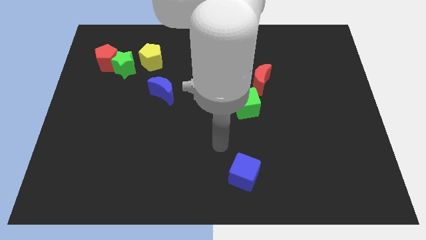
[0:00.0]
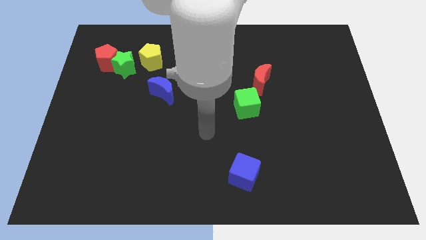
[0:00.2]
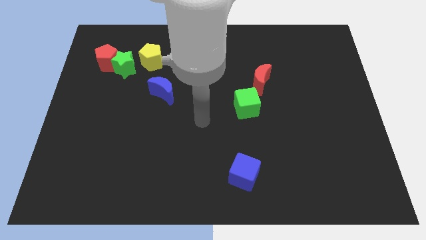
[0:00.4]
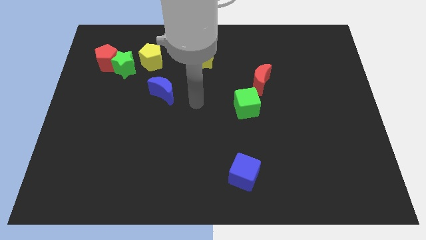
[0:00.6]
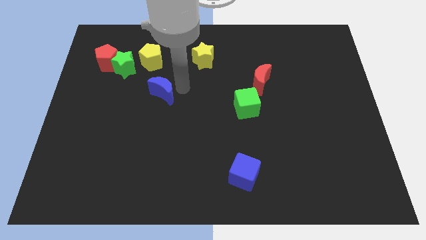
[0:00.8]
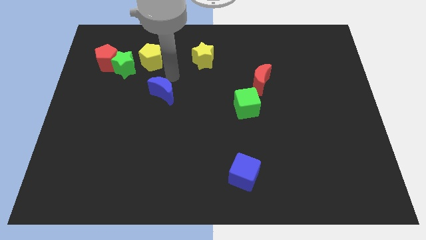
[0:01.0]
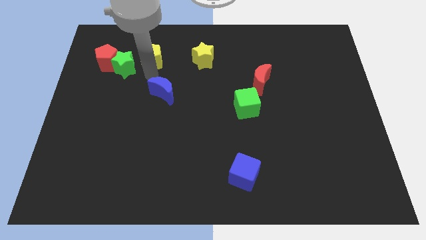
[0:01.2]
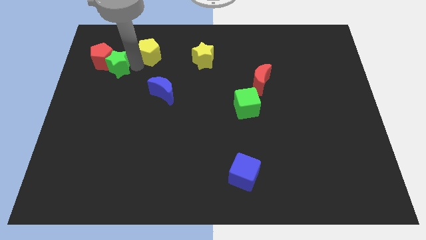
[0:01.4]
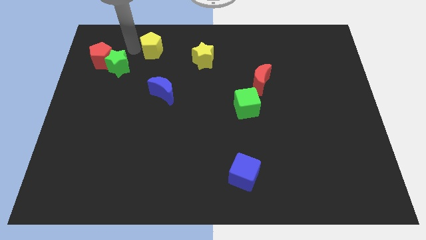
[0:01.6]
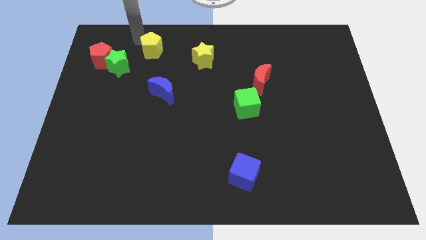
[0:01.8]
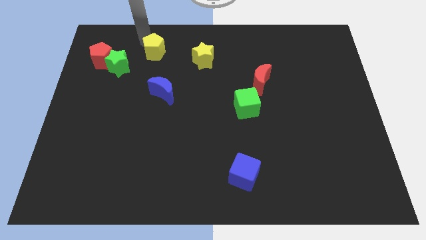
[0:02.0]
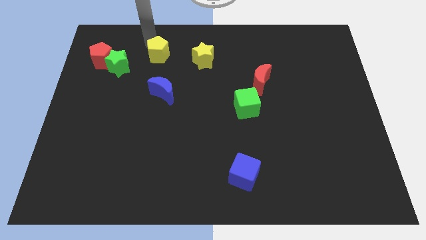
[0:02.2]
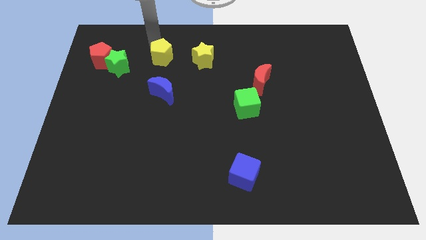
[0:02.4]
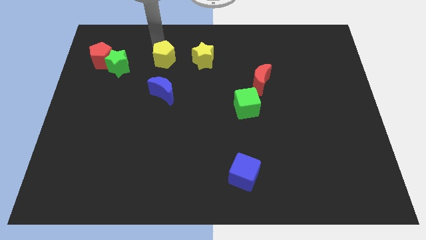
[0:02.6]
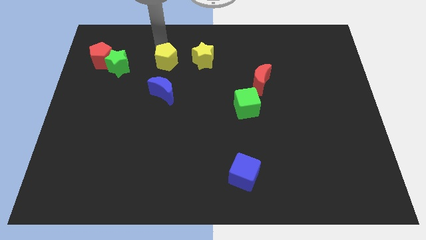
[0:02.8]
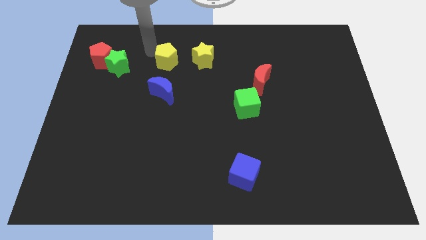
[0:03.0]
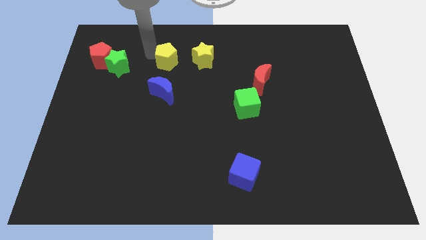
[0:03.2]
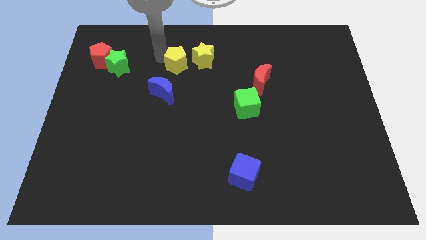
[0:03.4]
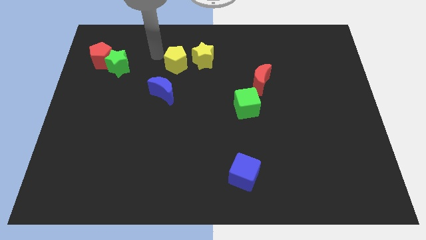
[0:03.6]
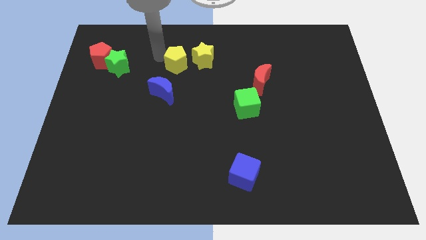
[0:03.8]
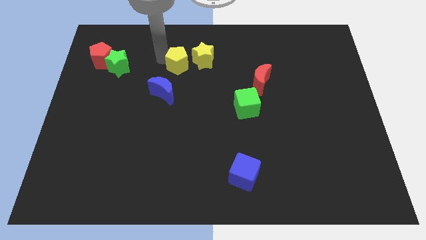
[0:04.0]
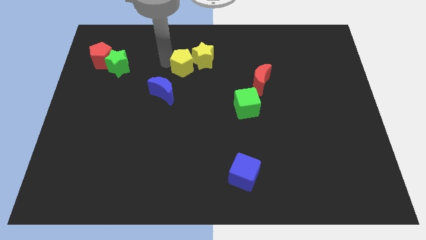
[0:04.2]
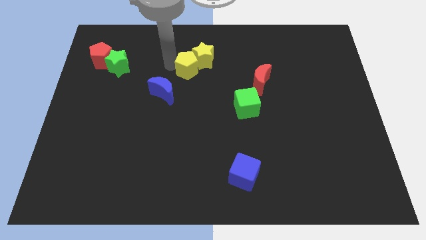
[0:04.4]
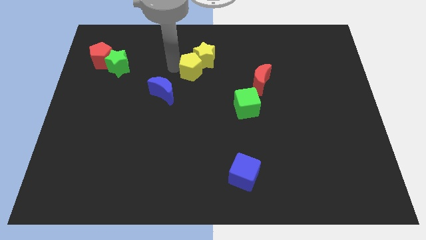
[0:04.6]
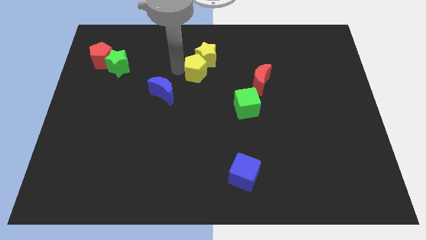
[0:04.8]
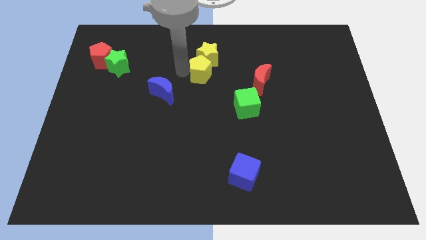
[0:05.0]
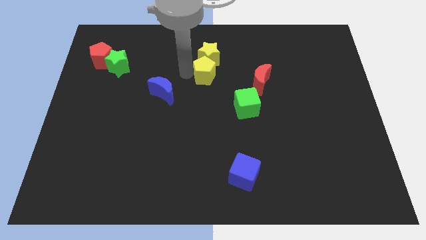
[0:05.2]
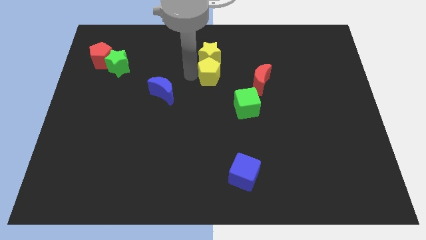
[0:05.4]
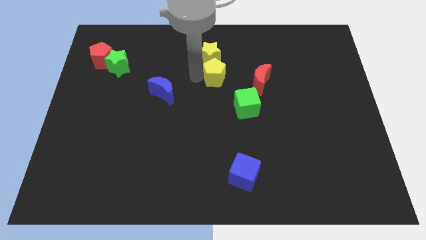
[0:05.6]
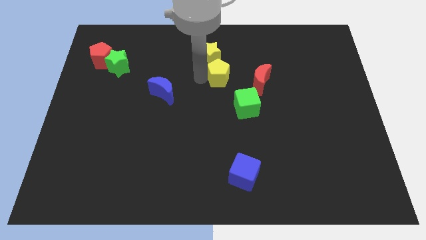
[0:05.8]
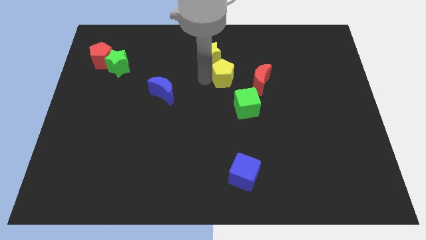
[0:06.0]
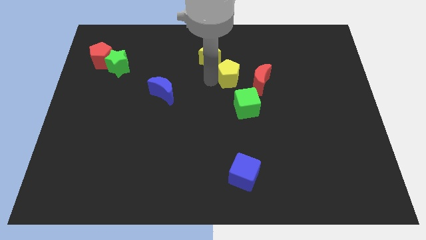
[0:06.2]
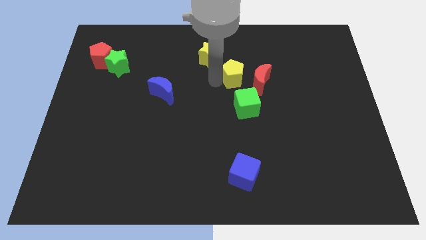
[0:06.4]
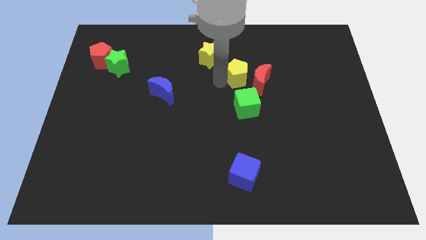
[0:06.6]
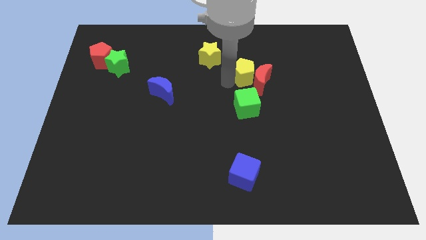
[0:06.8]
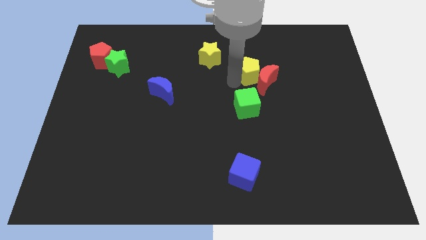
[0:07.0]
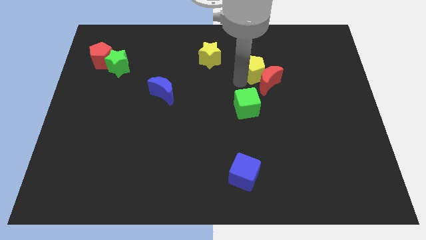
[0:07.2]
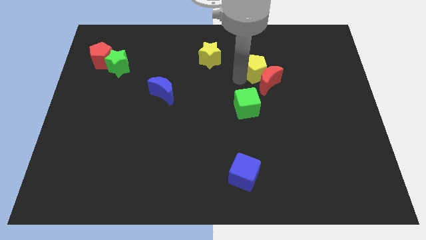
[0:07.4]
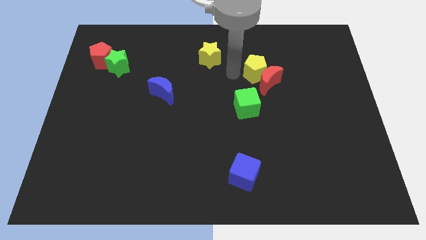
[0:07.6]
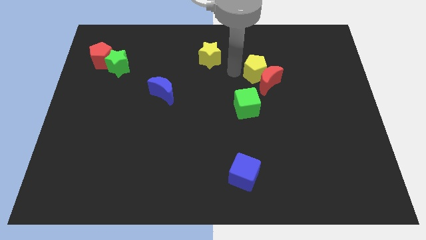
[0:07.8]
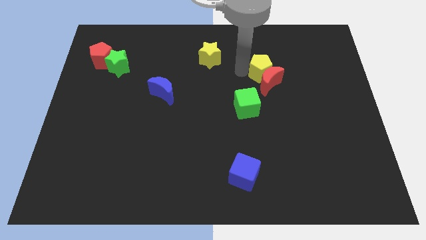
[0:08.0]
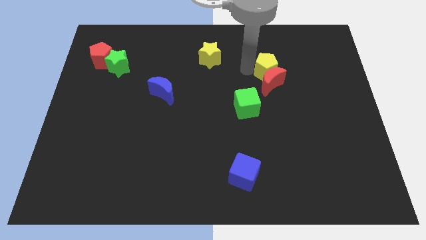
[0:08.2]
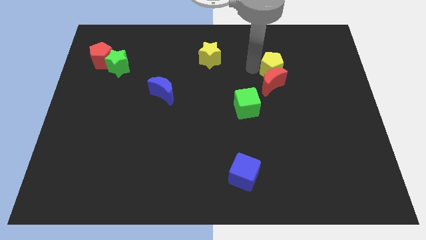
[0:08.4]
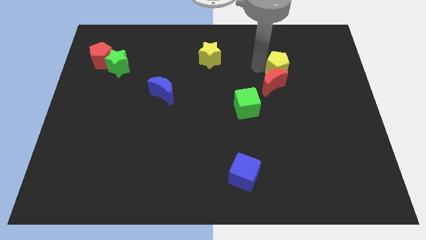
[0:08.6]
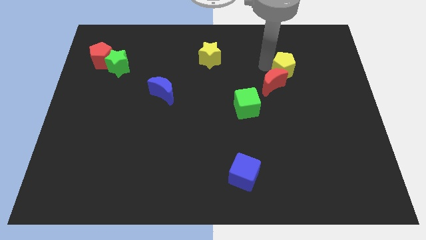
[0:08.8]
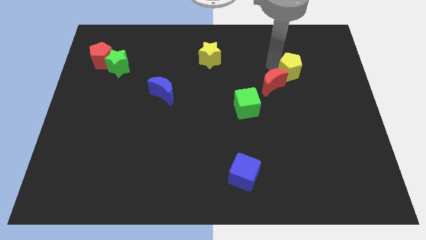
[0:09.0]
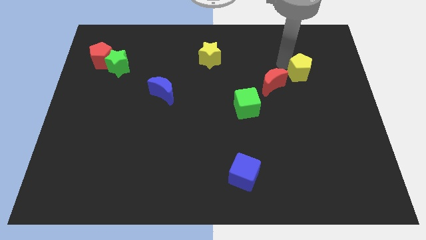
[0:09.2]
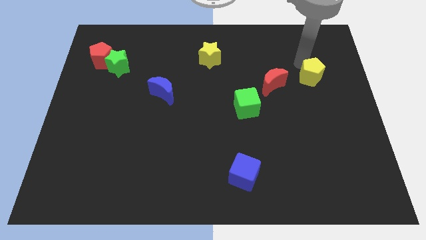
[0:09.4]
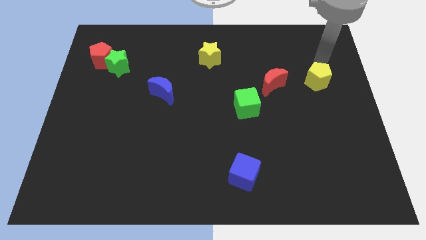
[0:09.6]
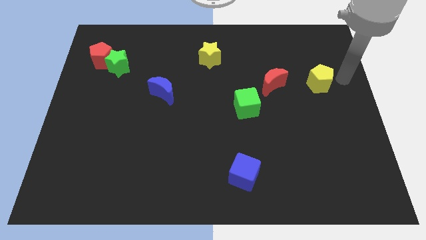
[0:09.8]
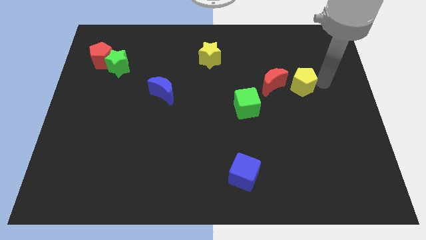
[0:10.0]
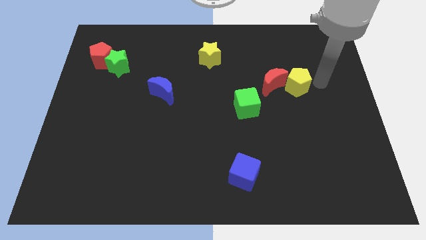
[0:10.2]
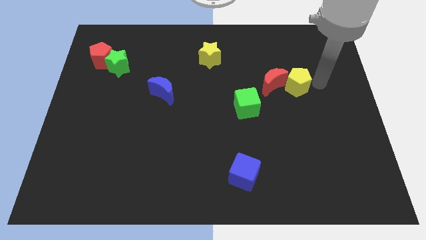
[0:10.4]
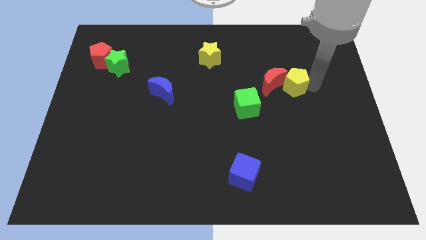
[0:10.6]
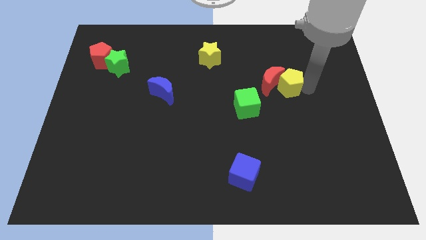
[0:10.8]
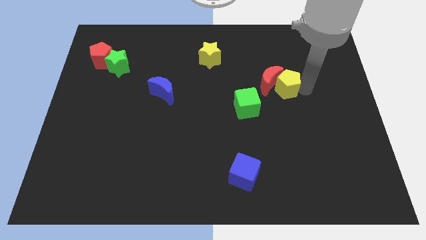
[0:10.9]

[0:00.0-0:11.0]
put the yellow pentagon diagonally up and to the right of the green cube

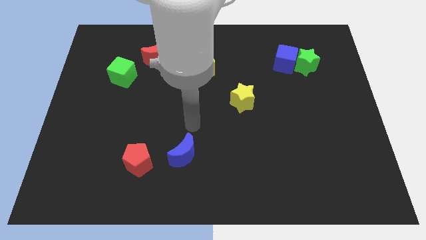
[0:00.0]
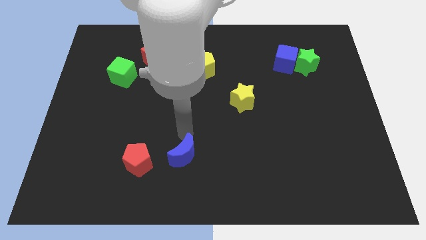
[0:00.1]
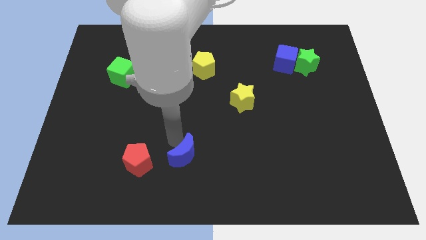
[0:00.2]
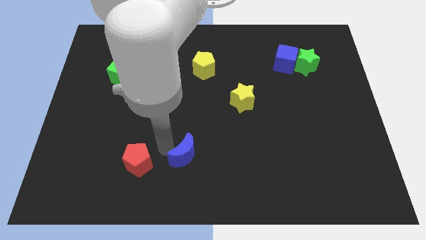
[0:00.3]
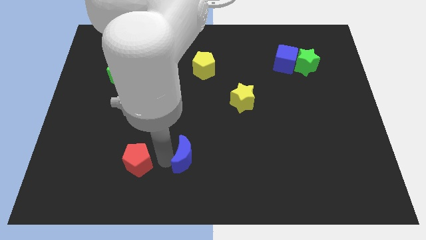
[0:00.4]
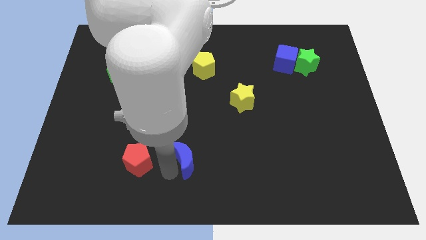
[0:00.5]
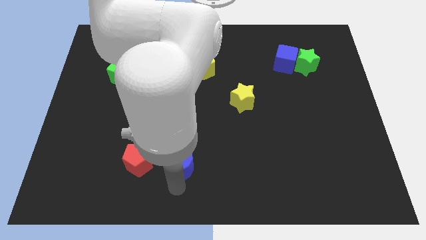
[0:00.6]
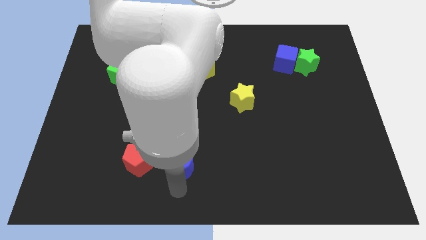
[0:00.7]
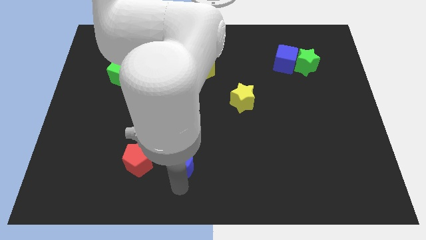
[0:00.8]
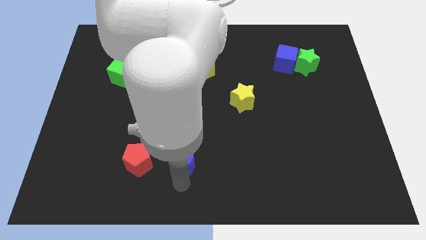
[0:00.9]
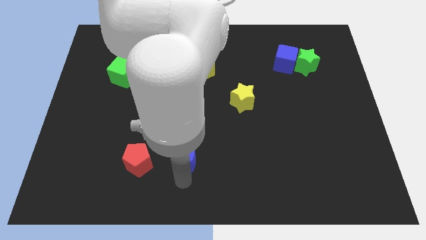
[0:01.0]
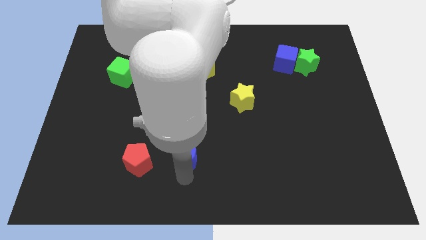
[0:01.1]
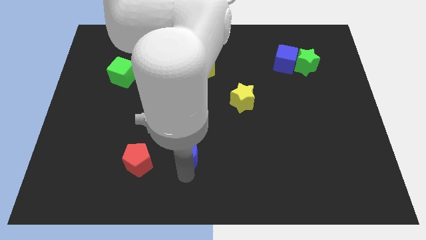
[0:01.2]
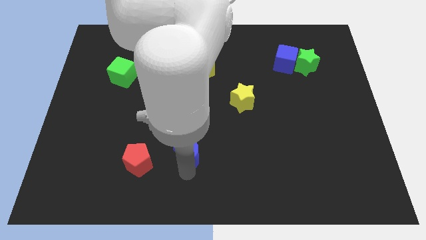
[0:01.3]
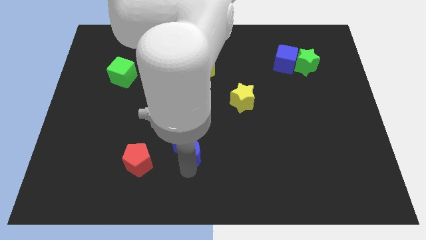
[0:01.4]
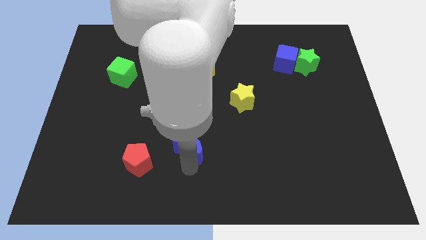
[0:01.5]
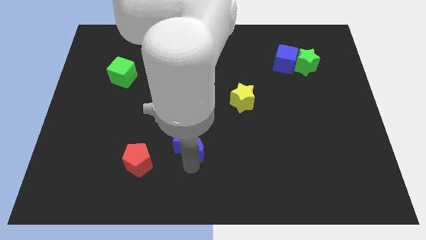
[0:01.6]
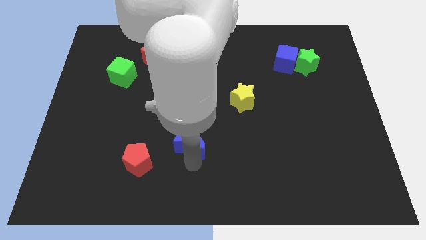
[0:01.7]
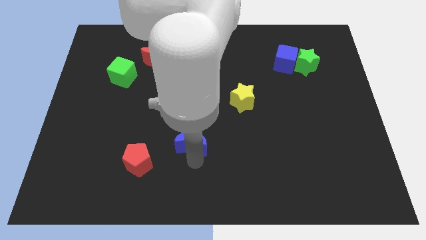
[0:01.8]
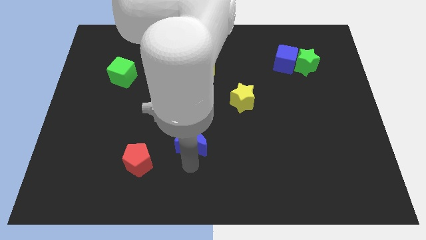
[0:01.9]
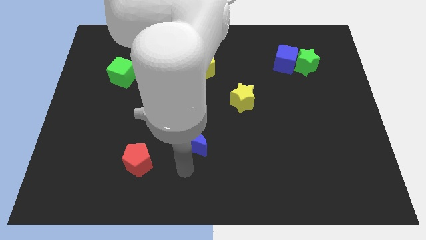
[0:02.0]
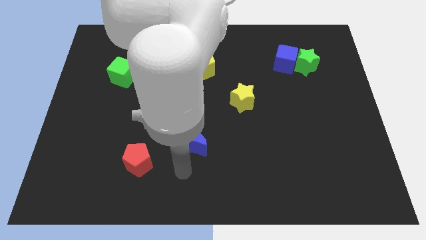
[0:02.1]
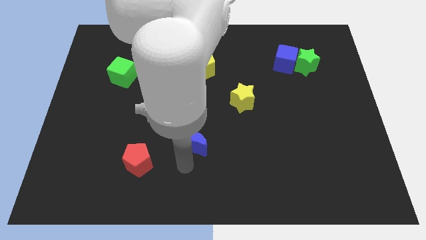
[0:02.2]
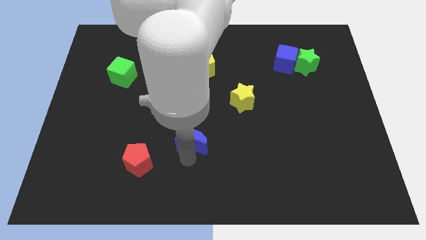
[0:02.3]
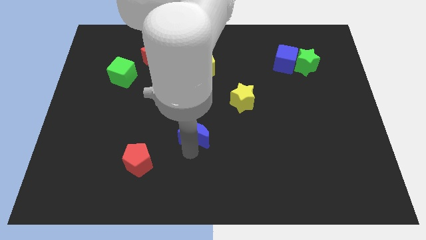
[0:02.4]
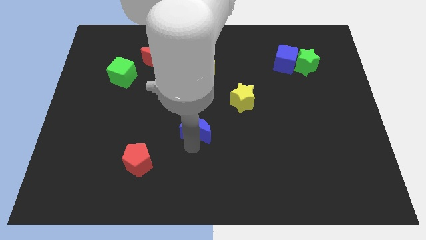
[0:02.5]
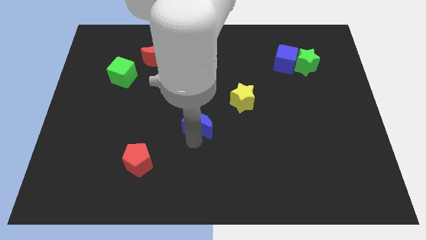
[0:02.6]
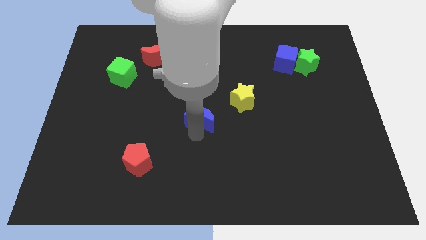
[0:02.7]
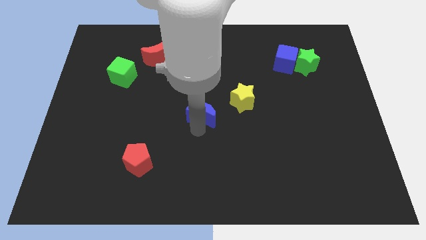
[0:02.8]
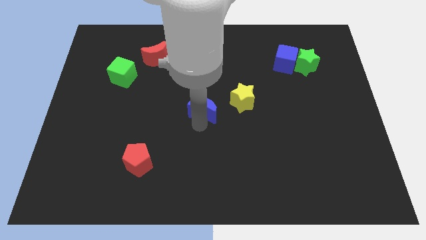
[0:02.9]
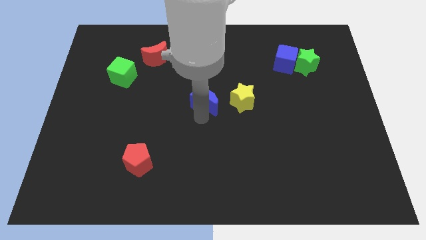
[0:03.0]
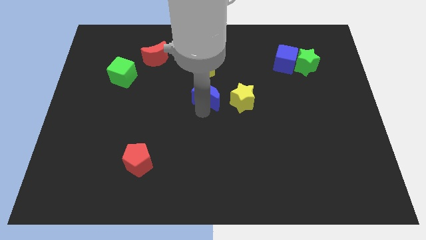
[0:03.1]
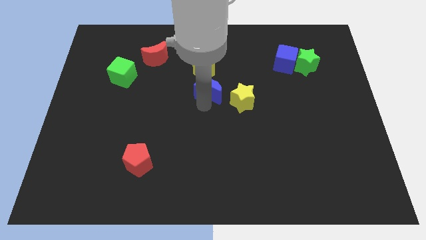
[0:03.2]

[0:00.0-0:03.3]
push the blue moon diagonally up and to the left of the yellow star
